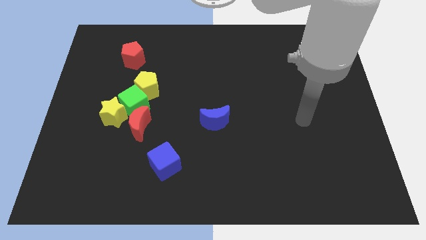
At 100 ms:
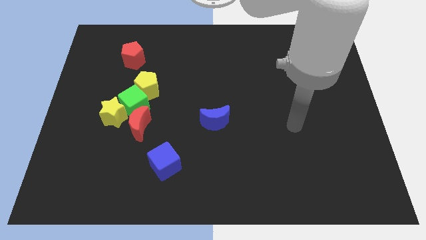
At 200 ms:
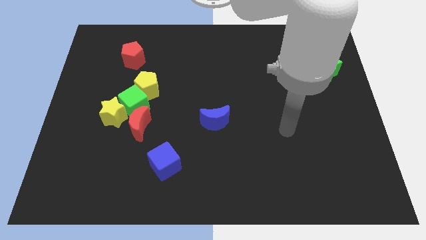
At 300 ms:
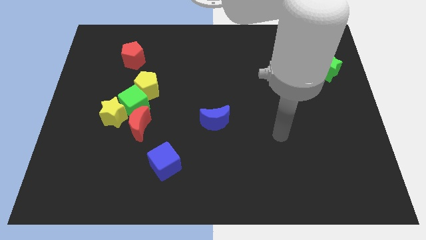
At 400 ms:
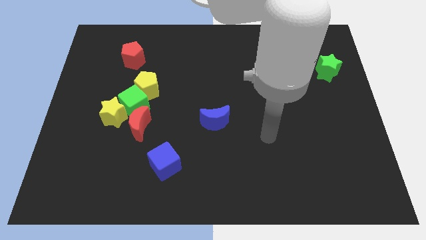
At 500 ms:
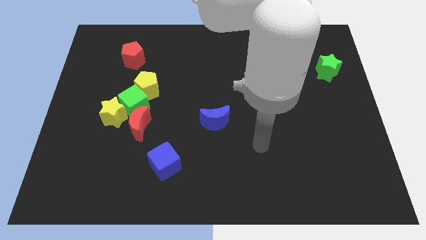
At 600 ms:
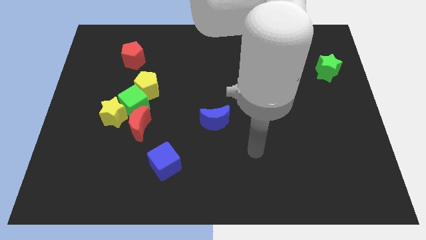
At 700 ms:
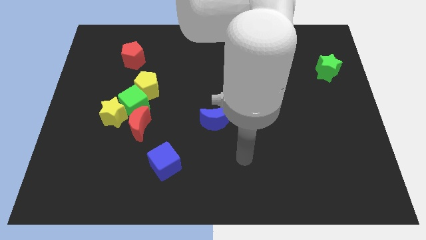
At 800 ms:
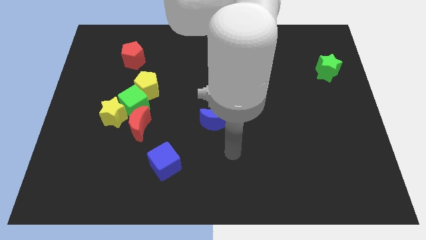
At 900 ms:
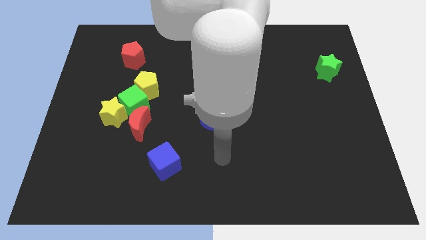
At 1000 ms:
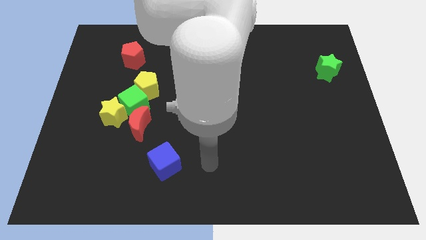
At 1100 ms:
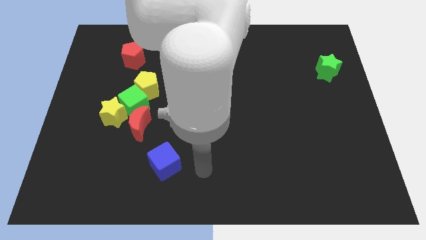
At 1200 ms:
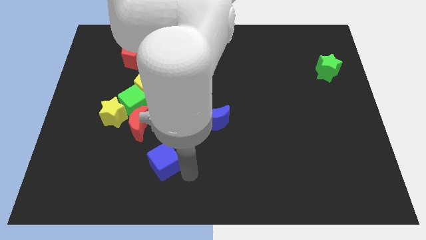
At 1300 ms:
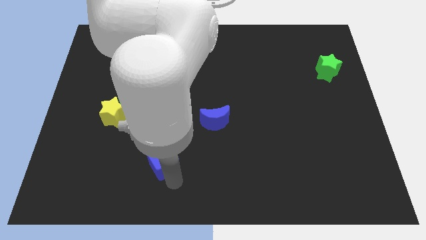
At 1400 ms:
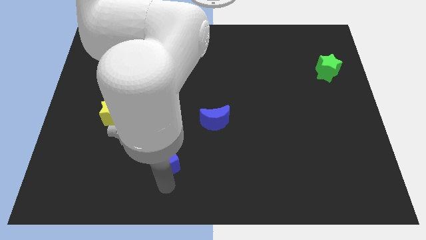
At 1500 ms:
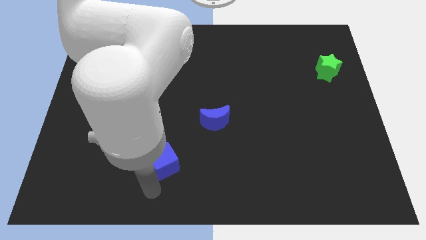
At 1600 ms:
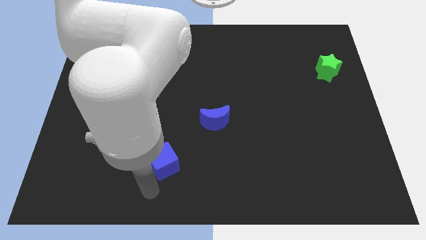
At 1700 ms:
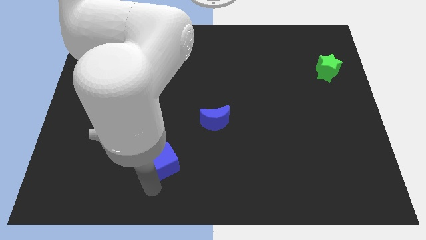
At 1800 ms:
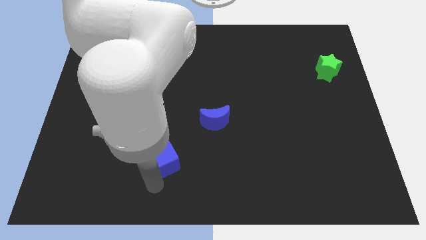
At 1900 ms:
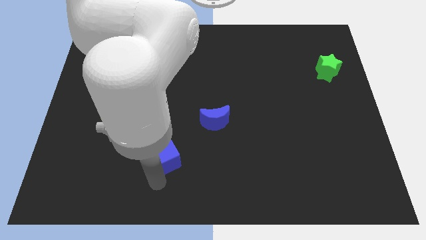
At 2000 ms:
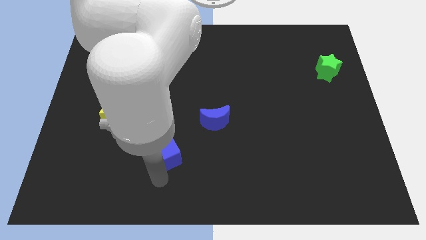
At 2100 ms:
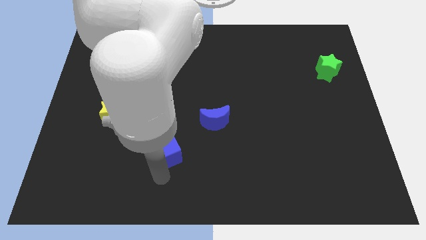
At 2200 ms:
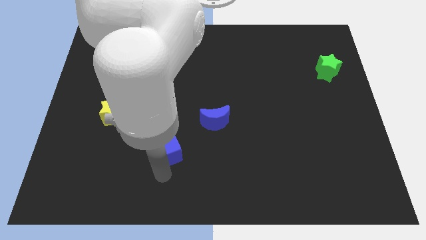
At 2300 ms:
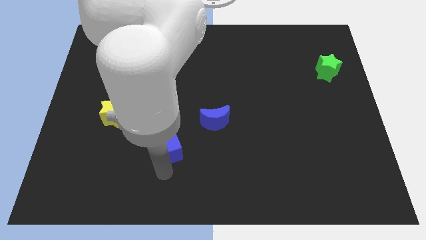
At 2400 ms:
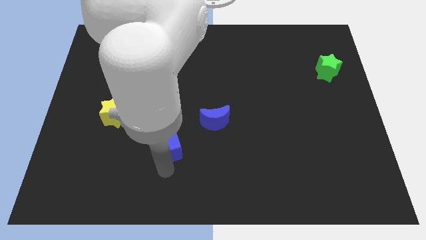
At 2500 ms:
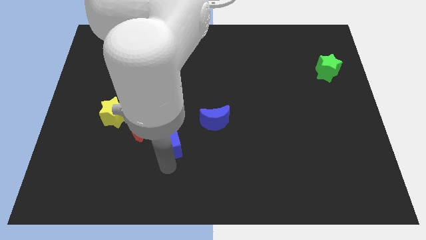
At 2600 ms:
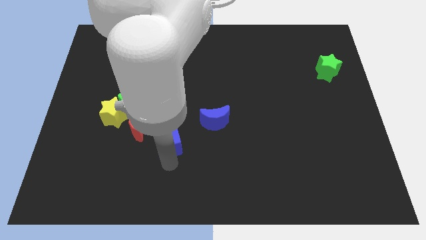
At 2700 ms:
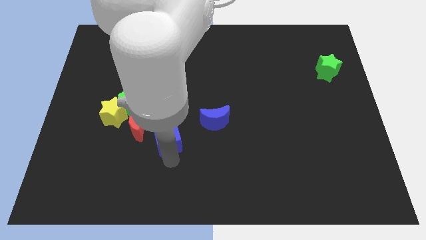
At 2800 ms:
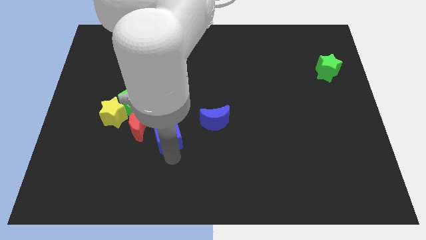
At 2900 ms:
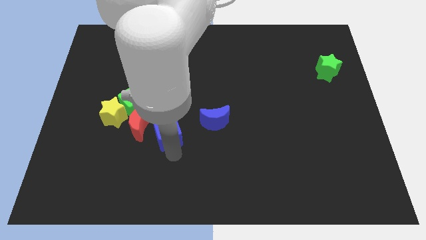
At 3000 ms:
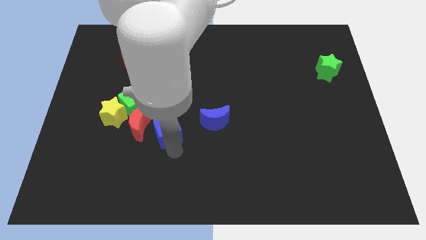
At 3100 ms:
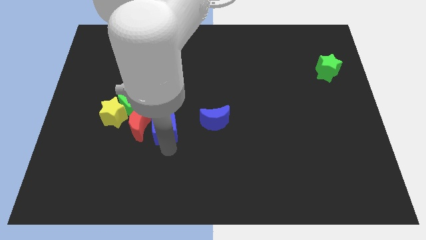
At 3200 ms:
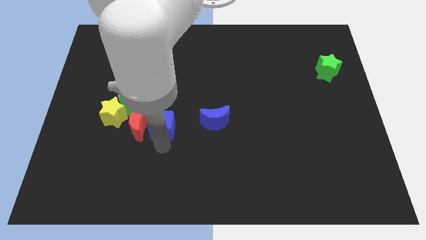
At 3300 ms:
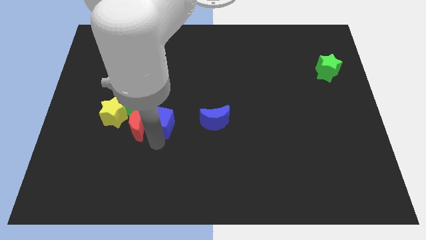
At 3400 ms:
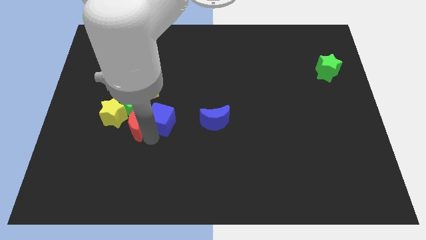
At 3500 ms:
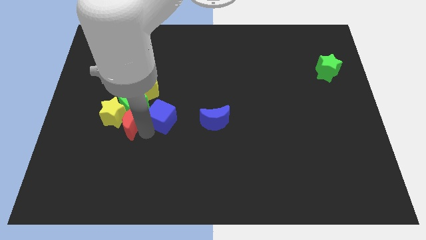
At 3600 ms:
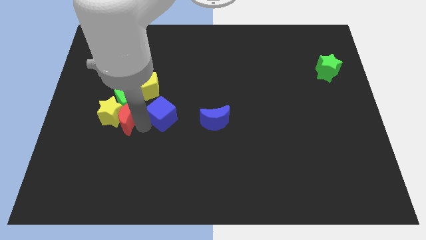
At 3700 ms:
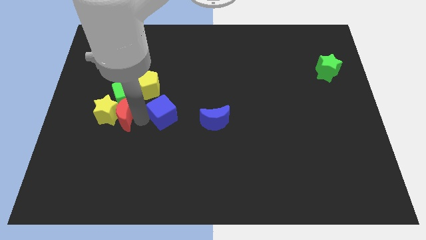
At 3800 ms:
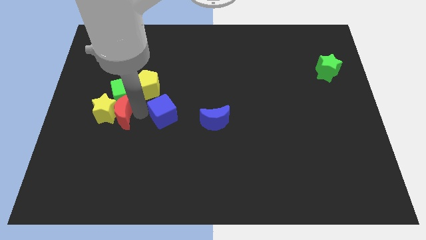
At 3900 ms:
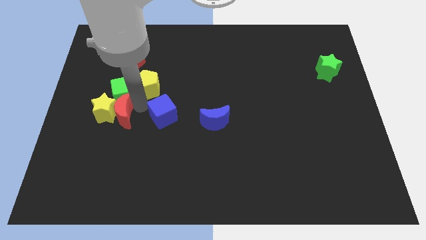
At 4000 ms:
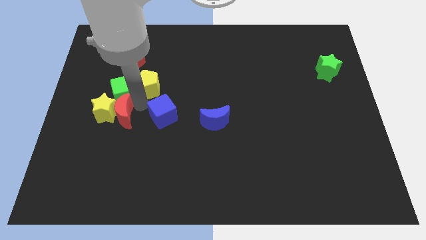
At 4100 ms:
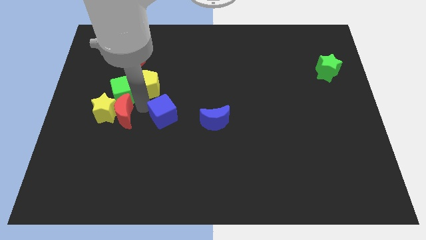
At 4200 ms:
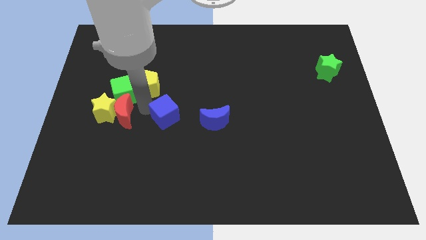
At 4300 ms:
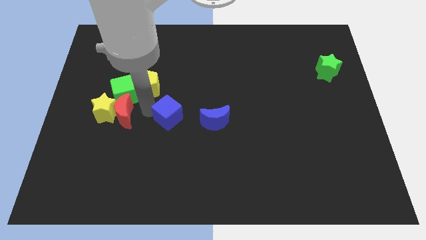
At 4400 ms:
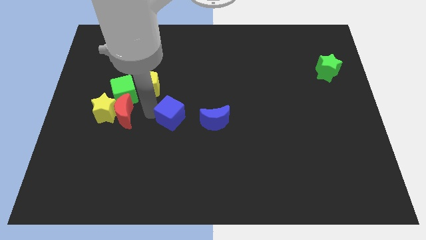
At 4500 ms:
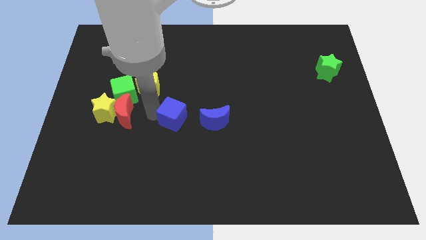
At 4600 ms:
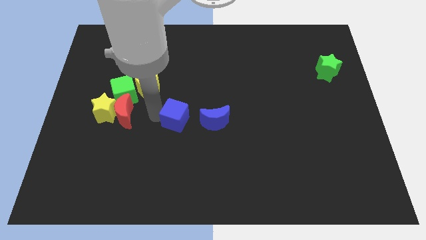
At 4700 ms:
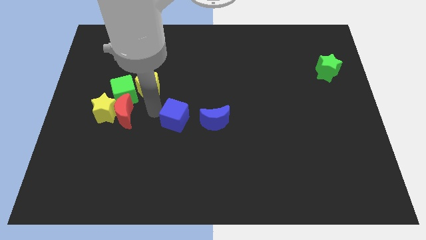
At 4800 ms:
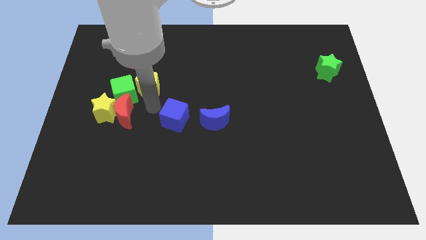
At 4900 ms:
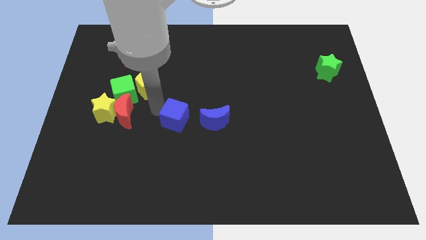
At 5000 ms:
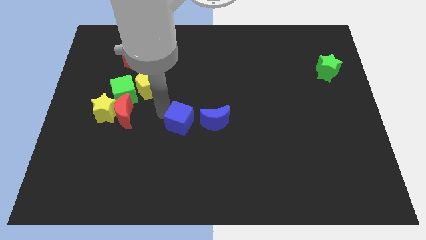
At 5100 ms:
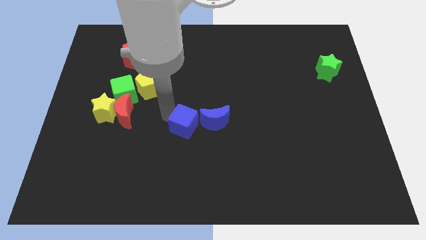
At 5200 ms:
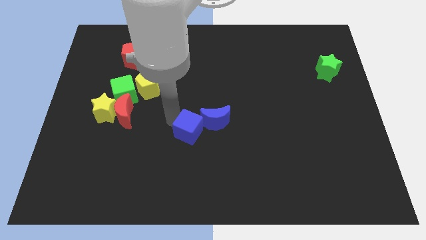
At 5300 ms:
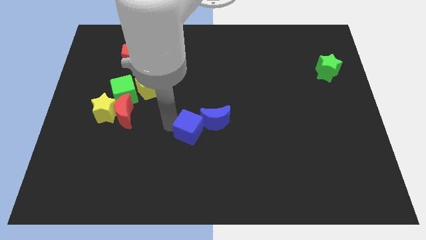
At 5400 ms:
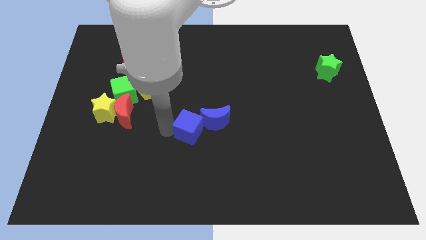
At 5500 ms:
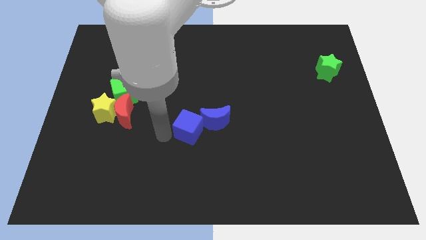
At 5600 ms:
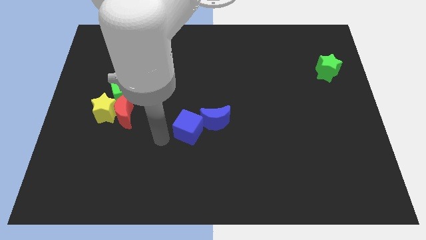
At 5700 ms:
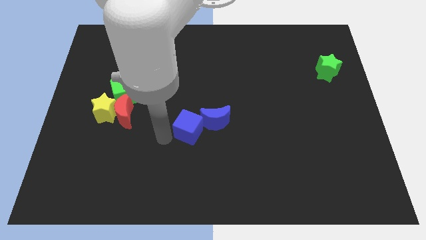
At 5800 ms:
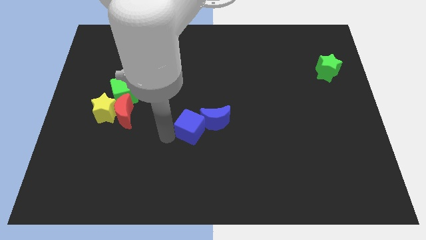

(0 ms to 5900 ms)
slide the blue cube to the blue moon

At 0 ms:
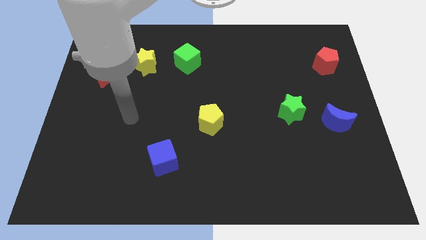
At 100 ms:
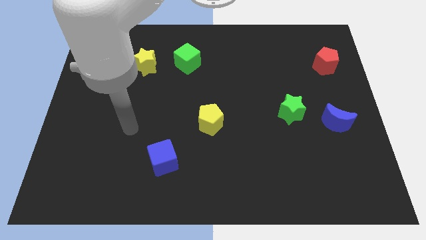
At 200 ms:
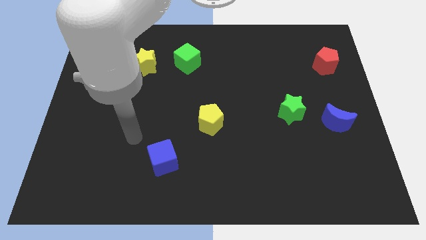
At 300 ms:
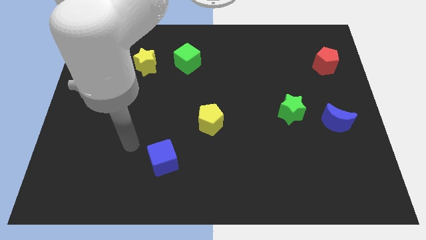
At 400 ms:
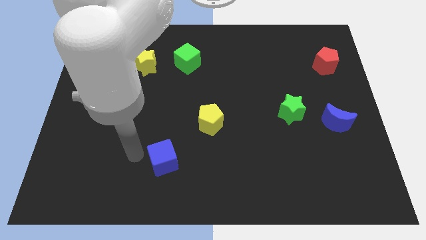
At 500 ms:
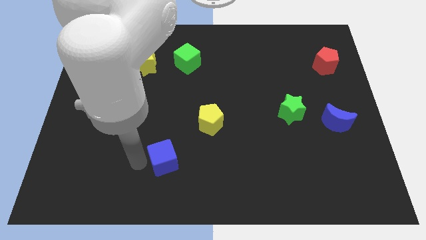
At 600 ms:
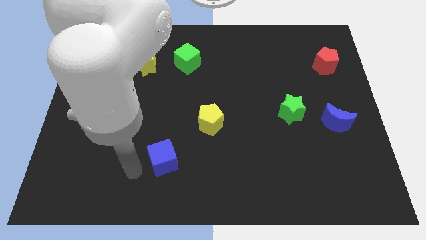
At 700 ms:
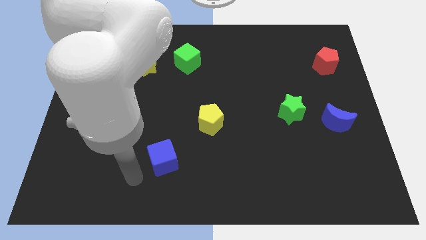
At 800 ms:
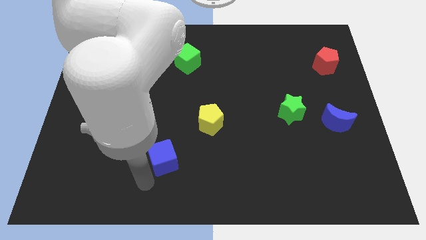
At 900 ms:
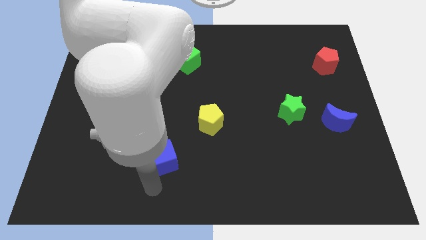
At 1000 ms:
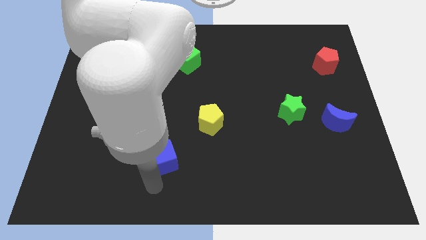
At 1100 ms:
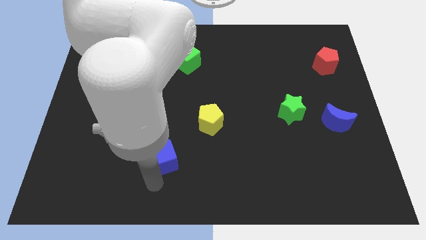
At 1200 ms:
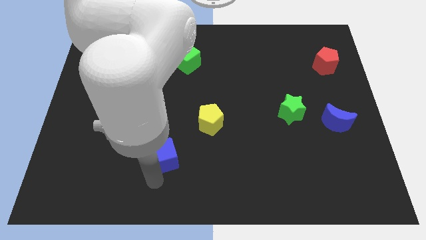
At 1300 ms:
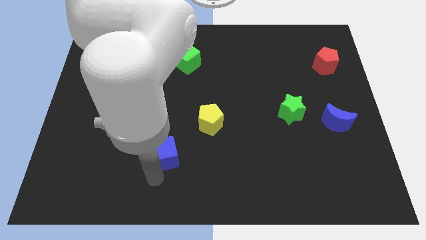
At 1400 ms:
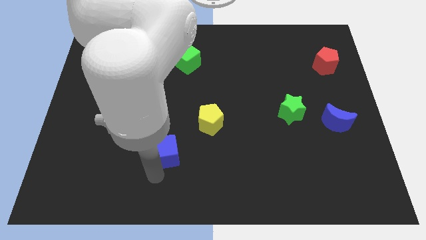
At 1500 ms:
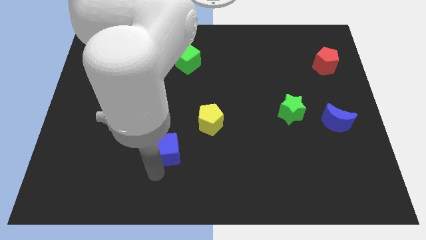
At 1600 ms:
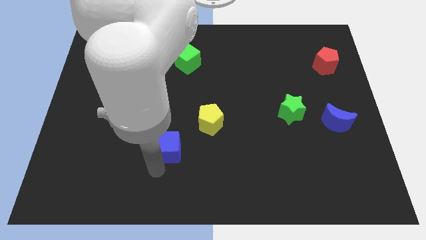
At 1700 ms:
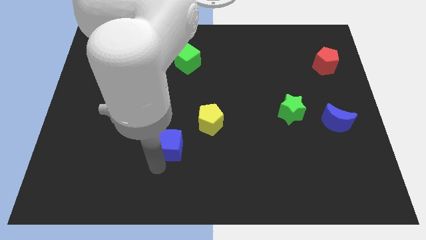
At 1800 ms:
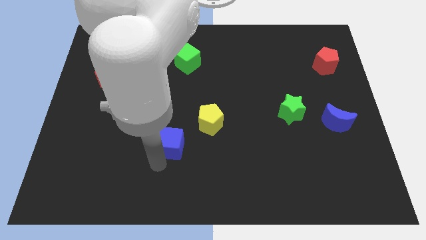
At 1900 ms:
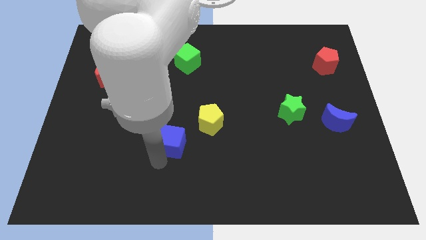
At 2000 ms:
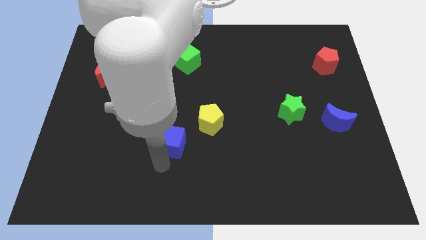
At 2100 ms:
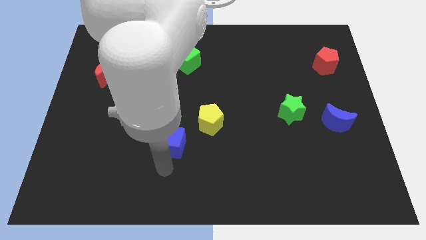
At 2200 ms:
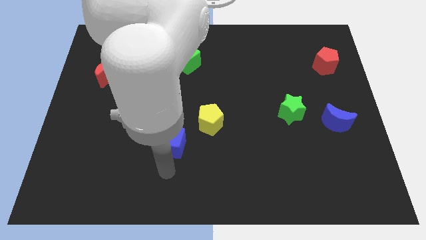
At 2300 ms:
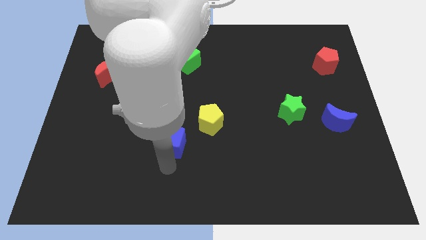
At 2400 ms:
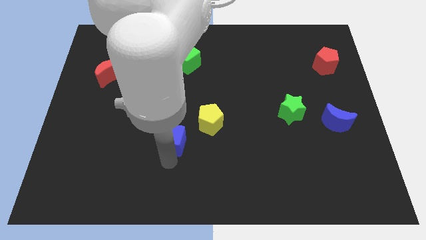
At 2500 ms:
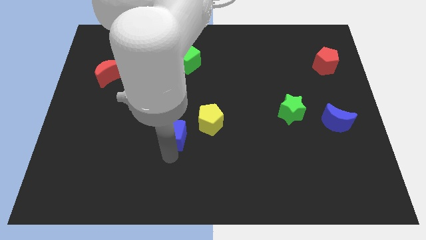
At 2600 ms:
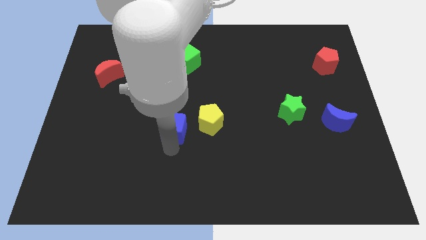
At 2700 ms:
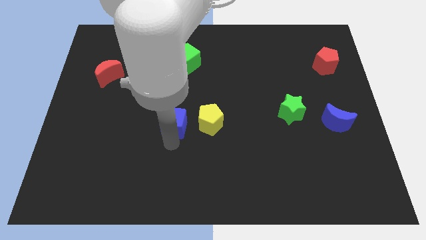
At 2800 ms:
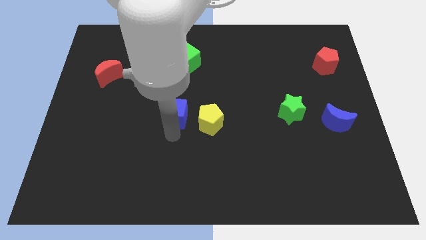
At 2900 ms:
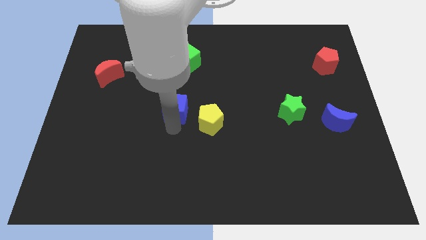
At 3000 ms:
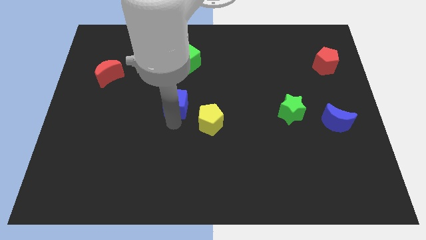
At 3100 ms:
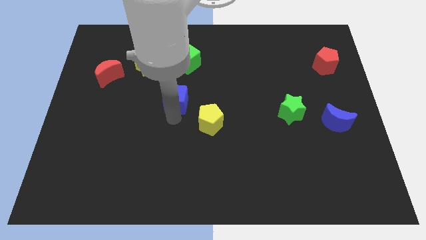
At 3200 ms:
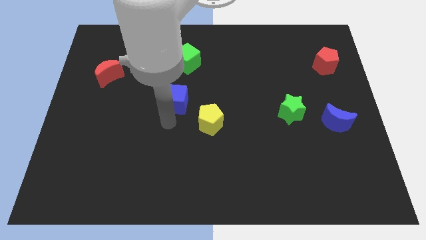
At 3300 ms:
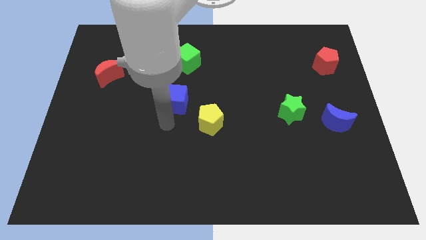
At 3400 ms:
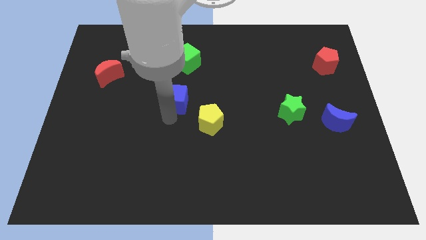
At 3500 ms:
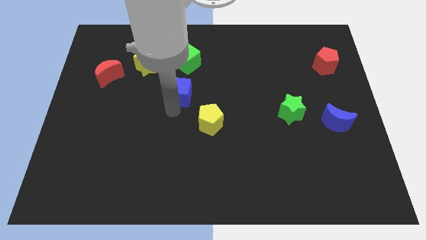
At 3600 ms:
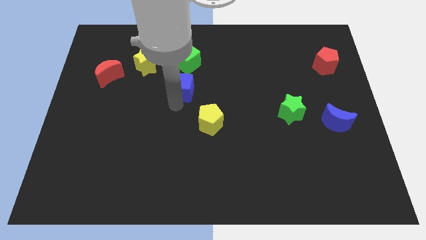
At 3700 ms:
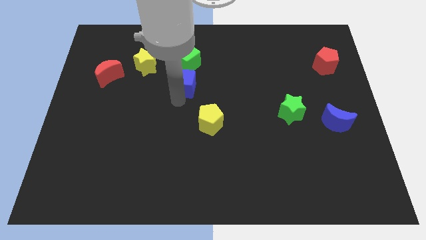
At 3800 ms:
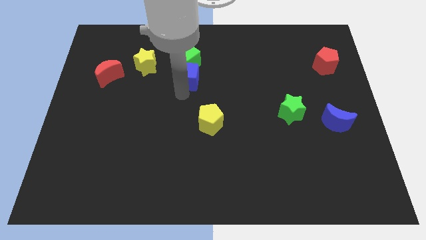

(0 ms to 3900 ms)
push the blue cube close to the green cube
